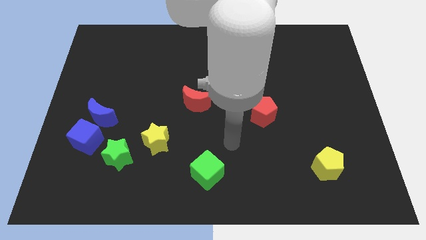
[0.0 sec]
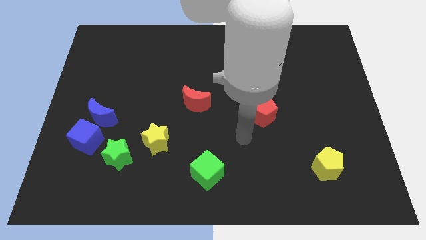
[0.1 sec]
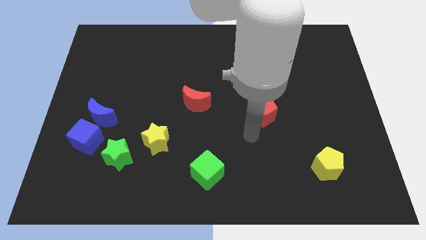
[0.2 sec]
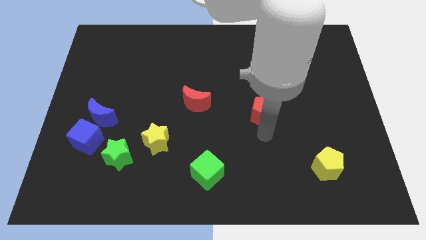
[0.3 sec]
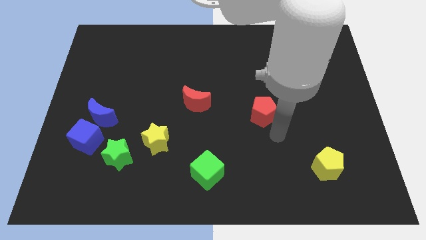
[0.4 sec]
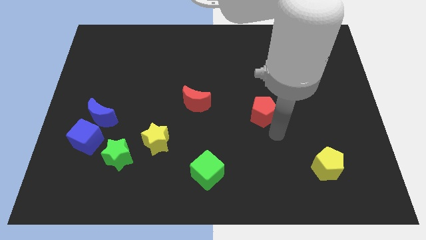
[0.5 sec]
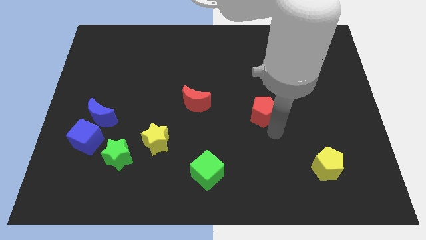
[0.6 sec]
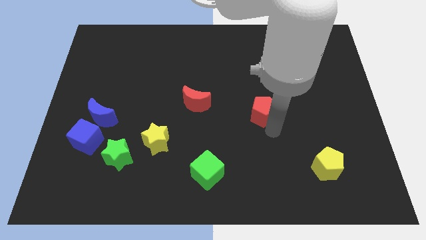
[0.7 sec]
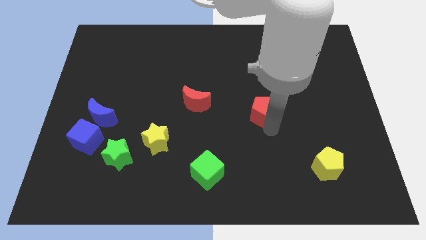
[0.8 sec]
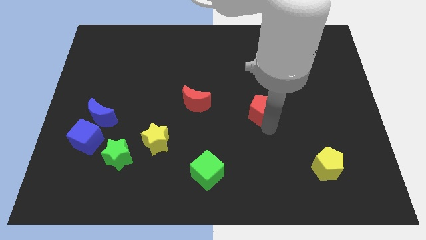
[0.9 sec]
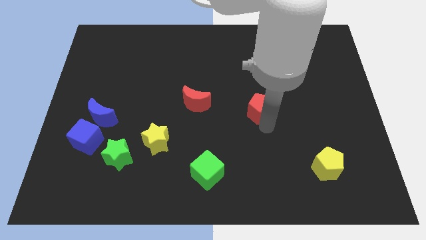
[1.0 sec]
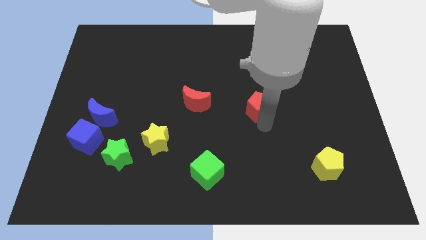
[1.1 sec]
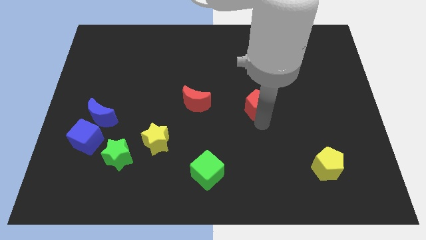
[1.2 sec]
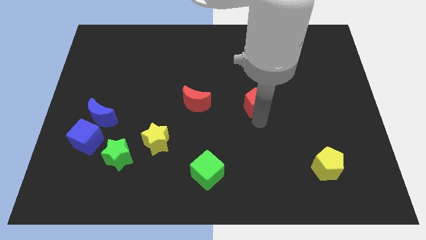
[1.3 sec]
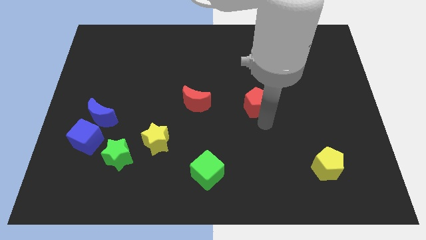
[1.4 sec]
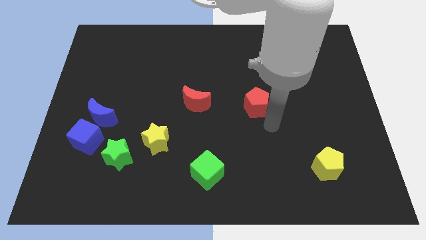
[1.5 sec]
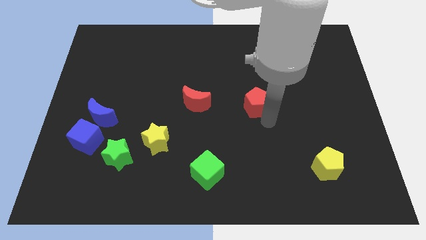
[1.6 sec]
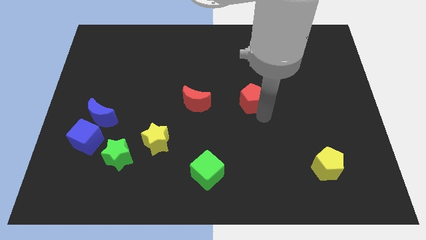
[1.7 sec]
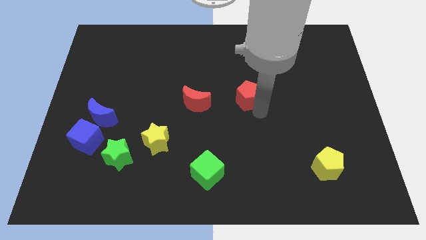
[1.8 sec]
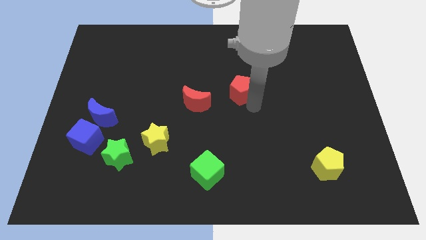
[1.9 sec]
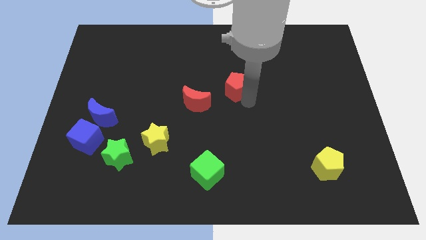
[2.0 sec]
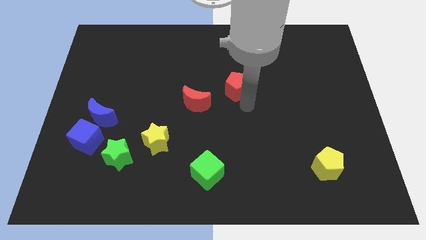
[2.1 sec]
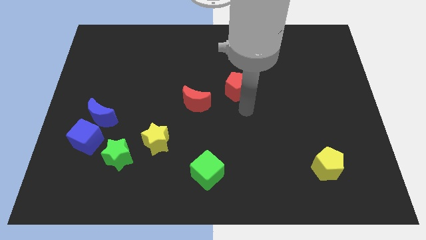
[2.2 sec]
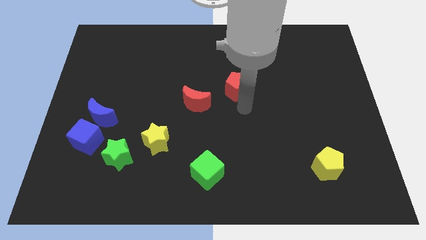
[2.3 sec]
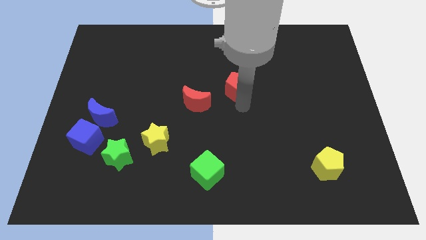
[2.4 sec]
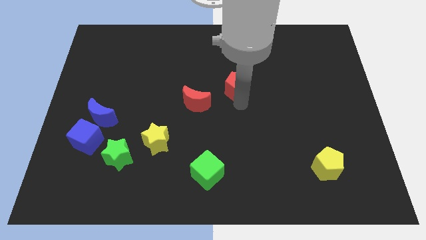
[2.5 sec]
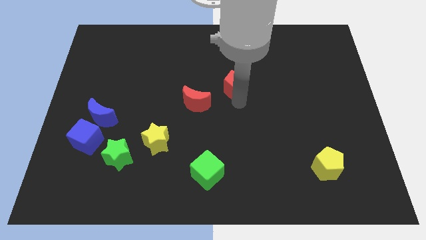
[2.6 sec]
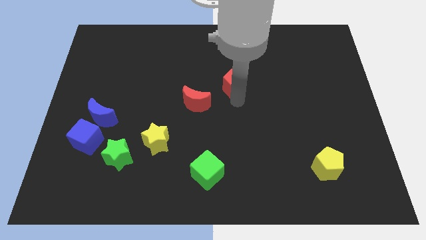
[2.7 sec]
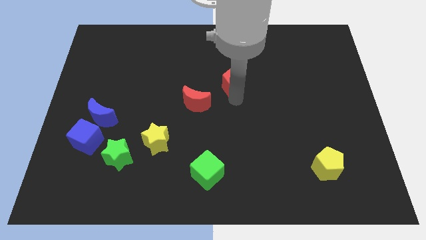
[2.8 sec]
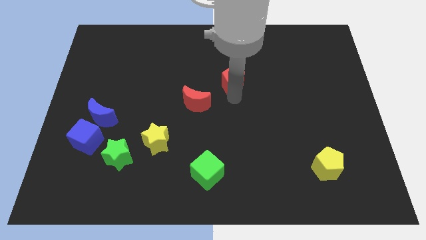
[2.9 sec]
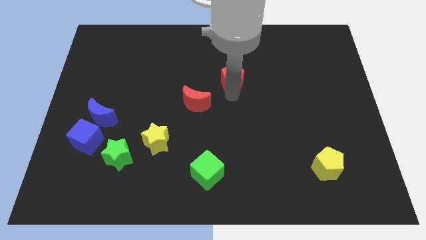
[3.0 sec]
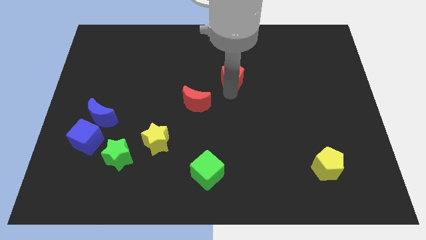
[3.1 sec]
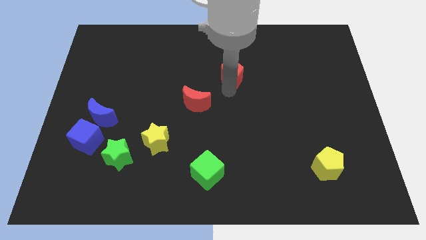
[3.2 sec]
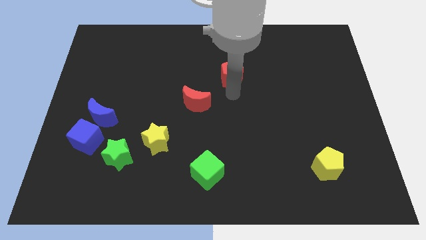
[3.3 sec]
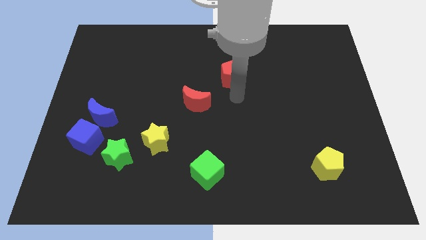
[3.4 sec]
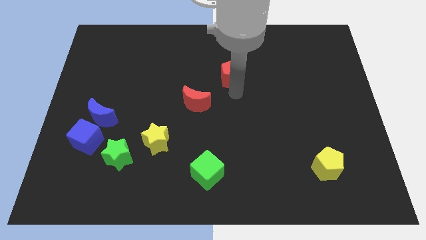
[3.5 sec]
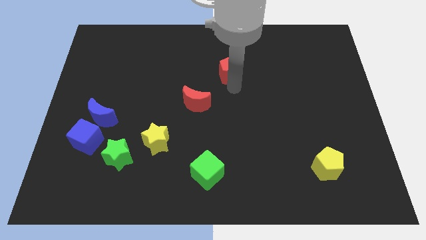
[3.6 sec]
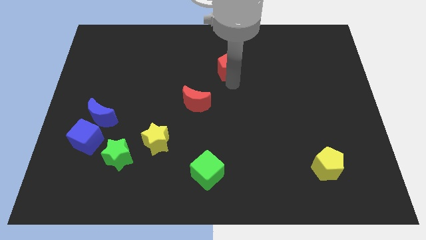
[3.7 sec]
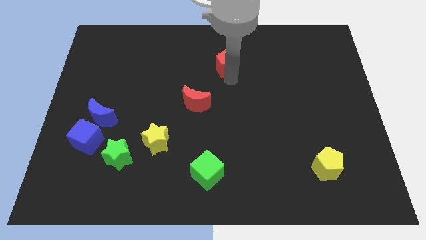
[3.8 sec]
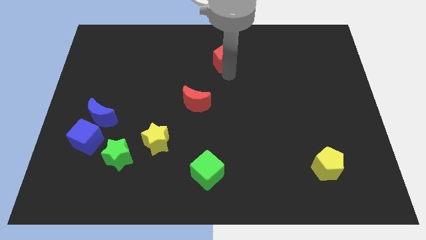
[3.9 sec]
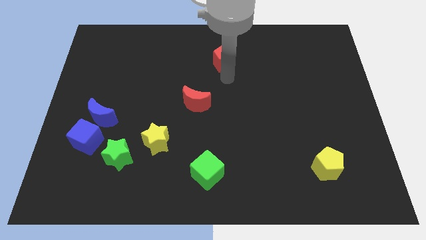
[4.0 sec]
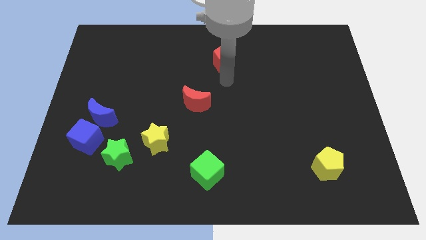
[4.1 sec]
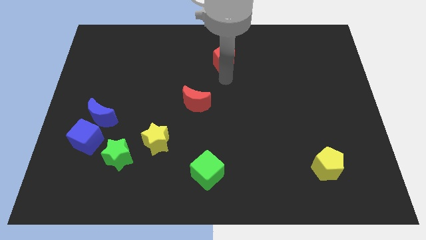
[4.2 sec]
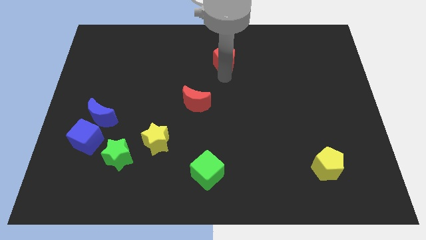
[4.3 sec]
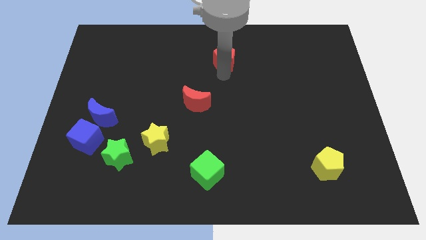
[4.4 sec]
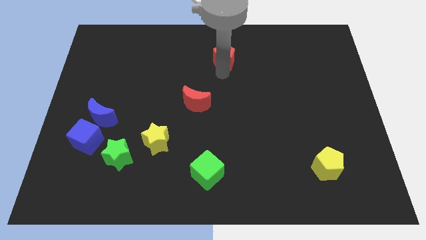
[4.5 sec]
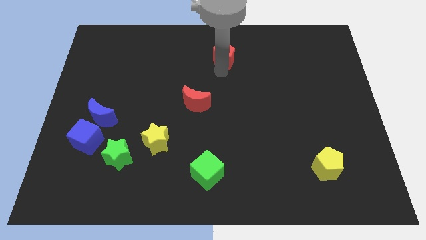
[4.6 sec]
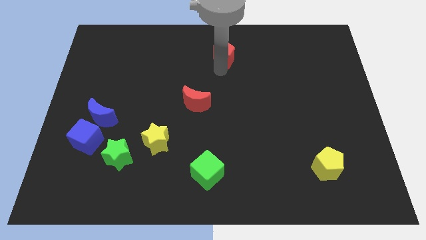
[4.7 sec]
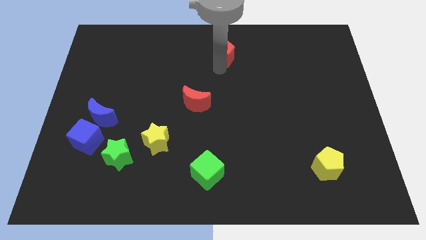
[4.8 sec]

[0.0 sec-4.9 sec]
move the red pentagon to the top side

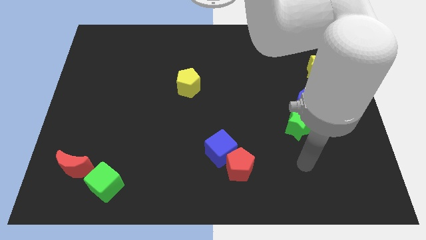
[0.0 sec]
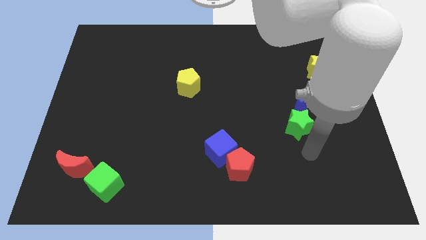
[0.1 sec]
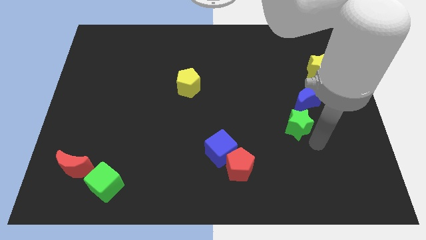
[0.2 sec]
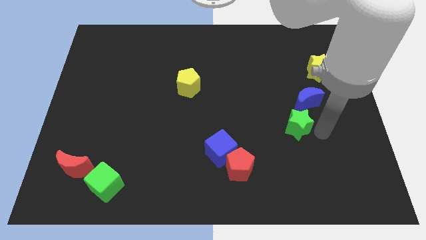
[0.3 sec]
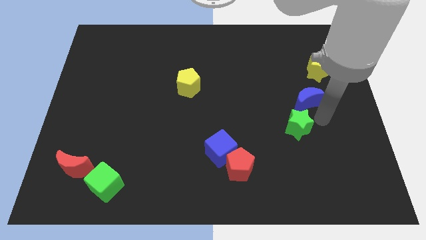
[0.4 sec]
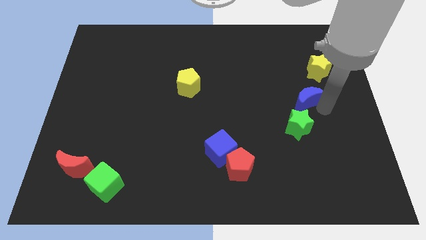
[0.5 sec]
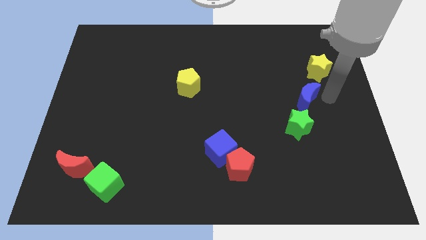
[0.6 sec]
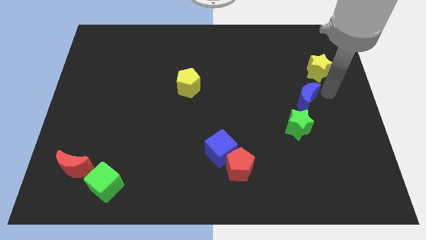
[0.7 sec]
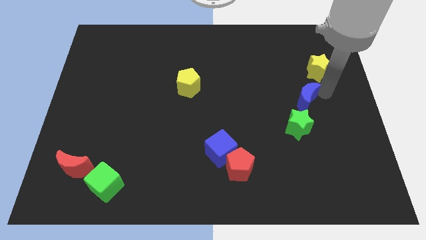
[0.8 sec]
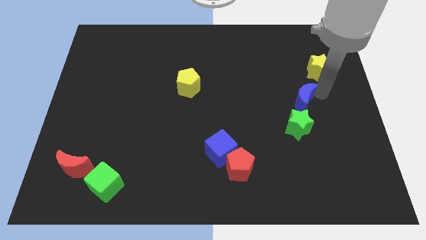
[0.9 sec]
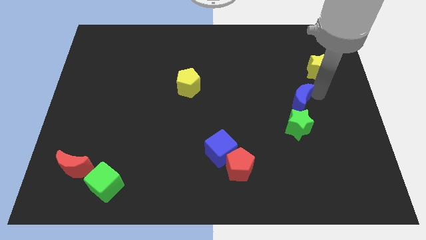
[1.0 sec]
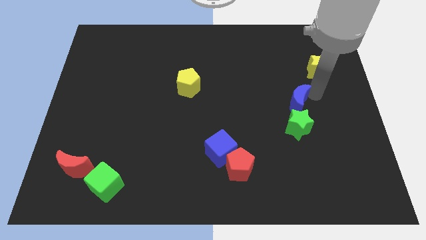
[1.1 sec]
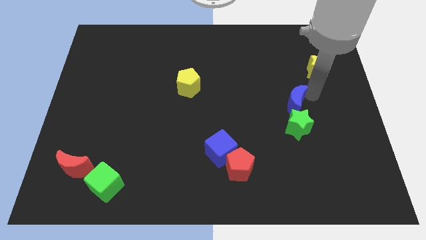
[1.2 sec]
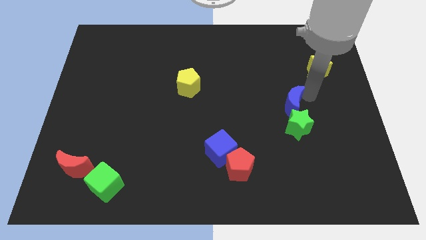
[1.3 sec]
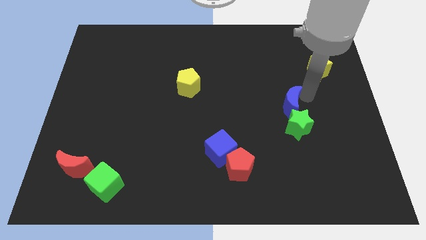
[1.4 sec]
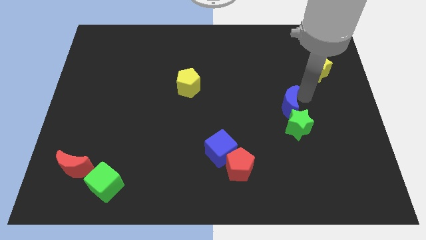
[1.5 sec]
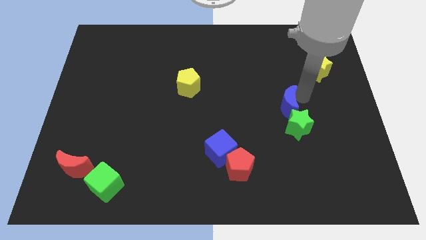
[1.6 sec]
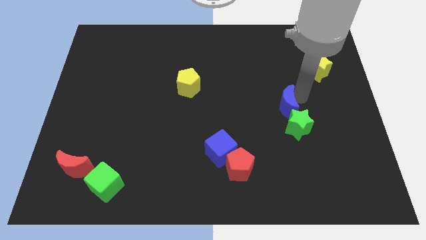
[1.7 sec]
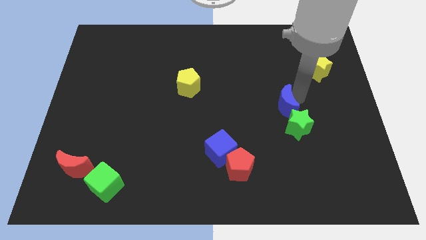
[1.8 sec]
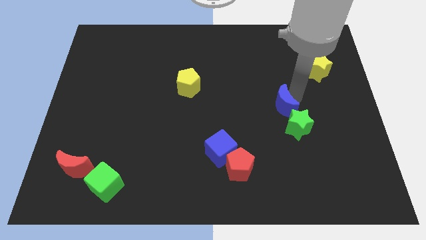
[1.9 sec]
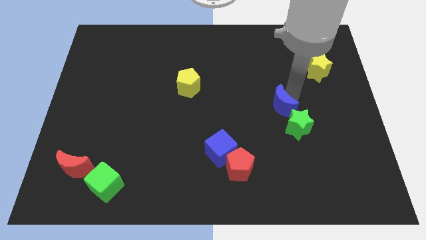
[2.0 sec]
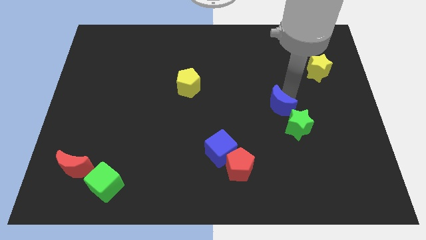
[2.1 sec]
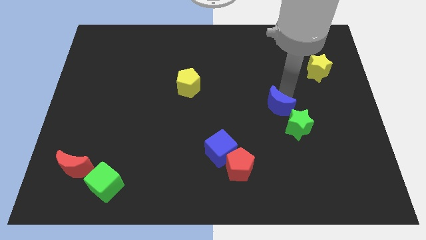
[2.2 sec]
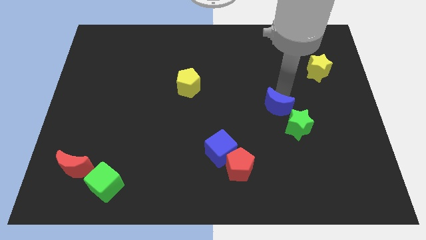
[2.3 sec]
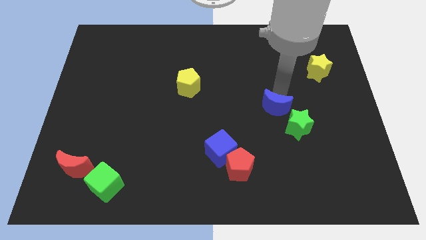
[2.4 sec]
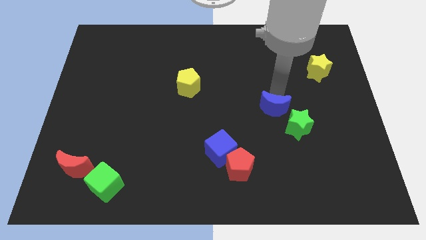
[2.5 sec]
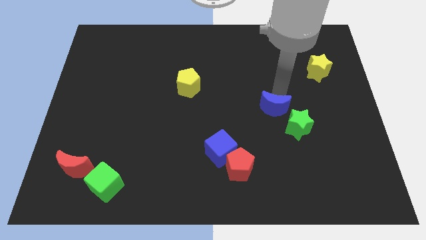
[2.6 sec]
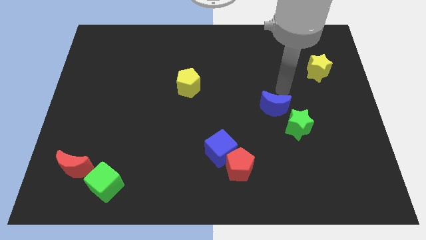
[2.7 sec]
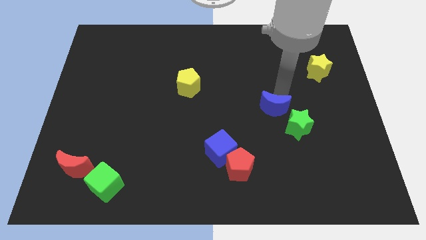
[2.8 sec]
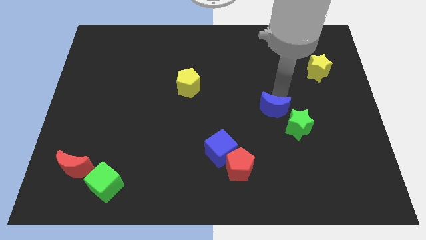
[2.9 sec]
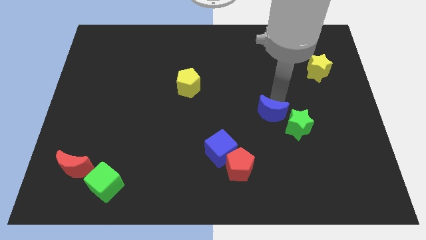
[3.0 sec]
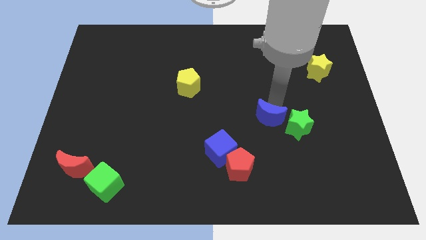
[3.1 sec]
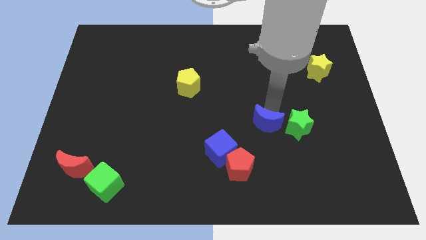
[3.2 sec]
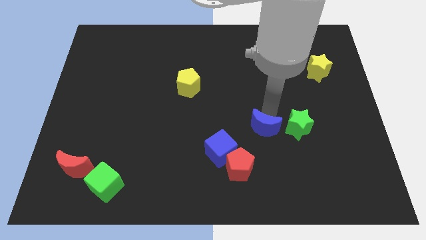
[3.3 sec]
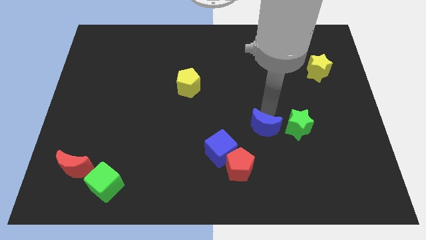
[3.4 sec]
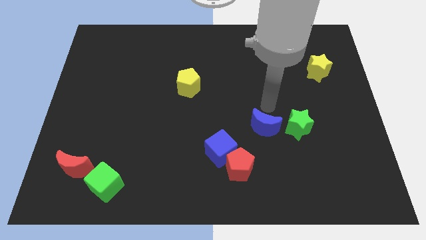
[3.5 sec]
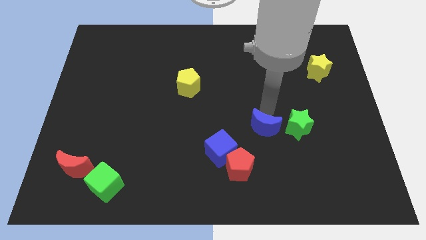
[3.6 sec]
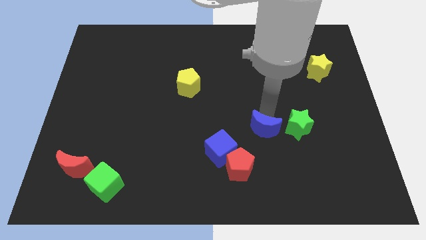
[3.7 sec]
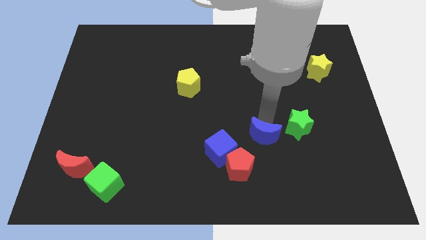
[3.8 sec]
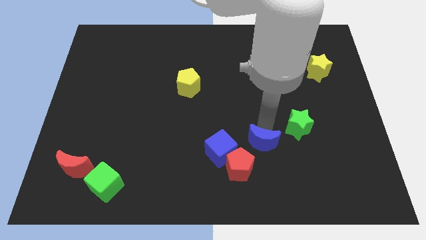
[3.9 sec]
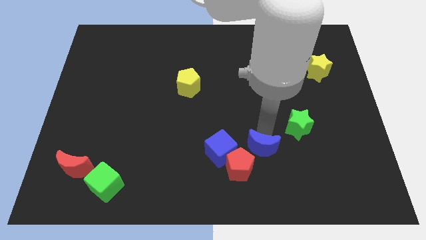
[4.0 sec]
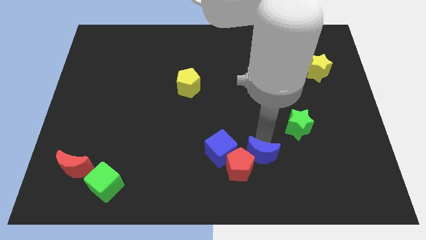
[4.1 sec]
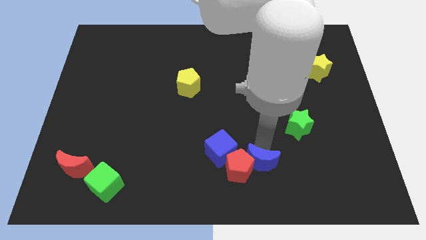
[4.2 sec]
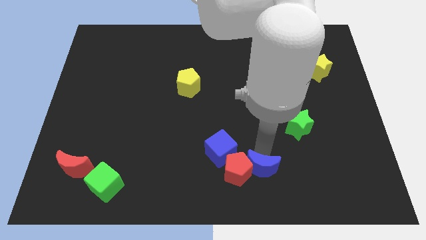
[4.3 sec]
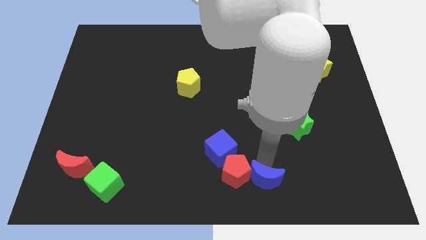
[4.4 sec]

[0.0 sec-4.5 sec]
put the blue moon to the bottom
